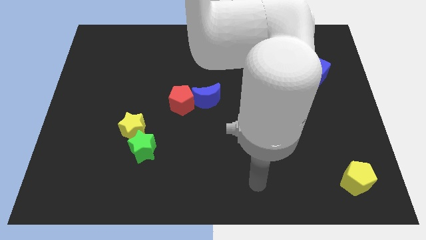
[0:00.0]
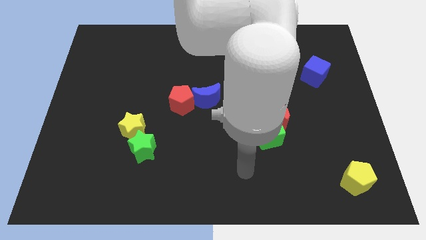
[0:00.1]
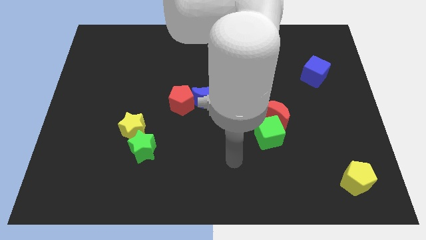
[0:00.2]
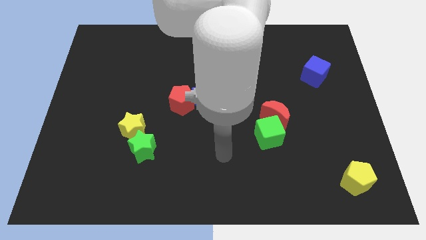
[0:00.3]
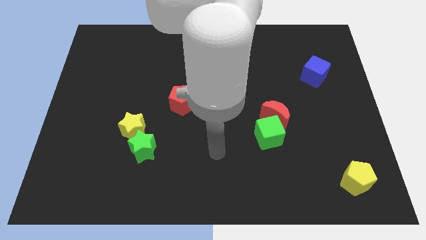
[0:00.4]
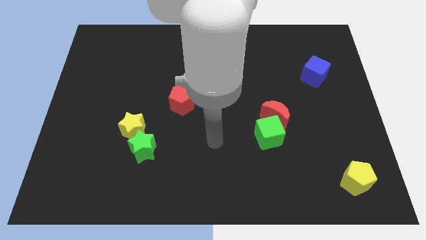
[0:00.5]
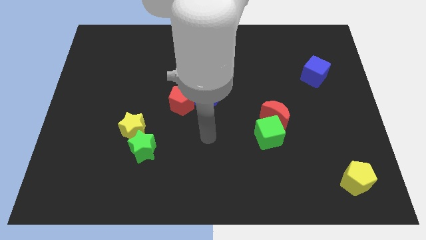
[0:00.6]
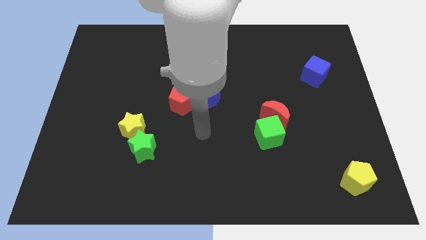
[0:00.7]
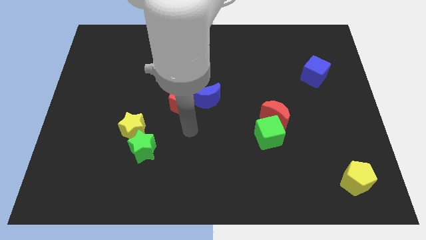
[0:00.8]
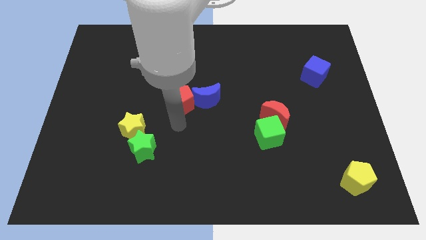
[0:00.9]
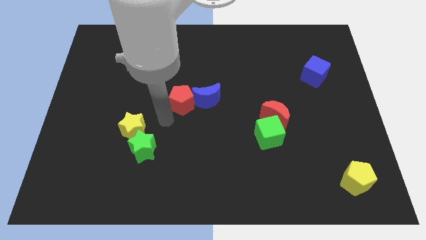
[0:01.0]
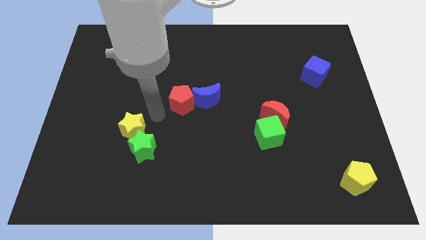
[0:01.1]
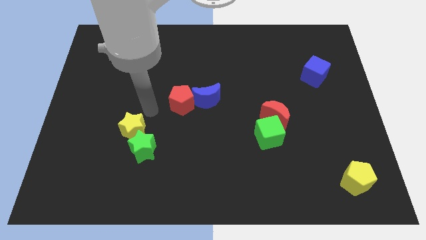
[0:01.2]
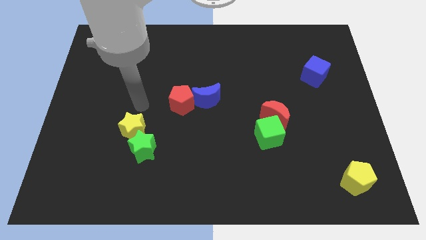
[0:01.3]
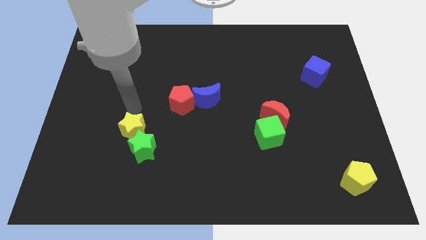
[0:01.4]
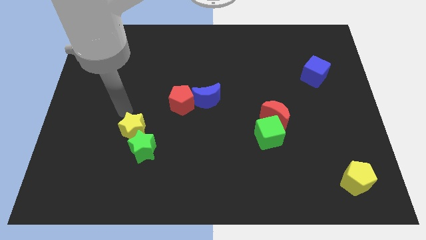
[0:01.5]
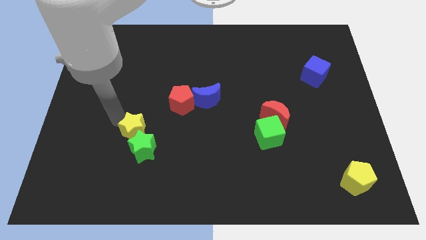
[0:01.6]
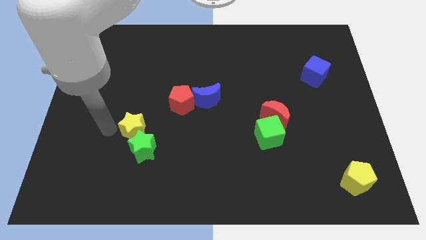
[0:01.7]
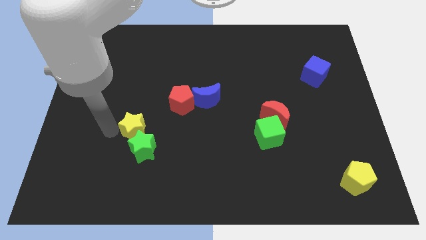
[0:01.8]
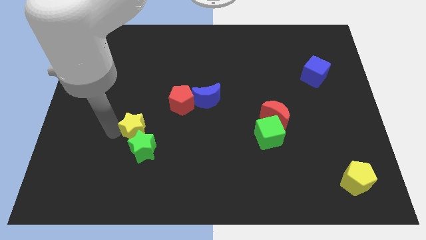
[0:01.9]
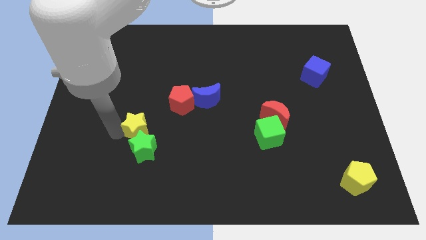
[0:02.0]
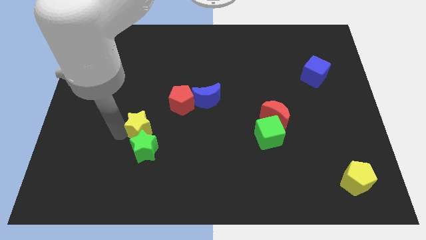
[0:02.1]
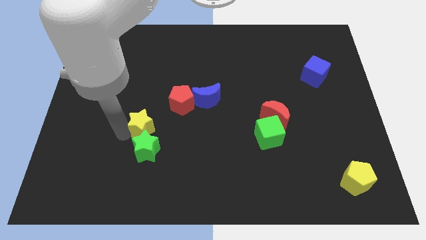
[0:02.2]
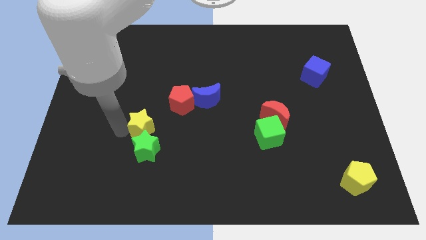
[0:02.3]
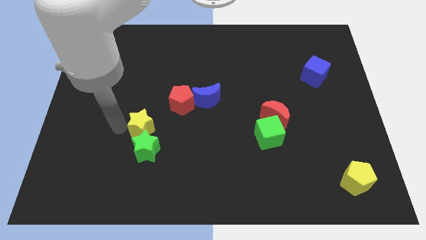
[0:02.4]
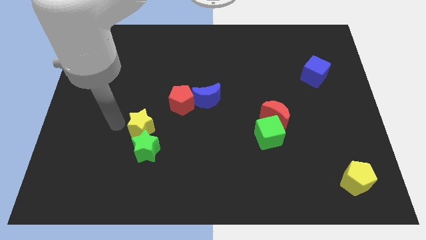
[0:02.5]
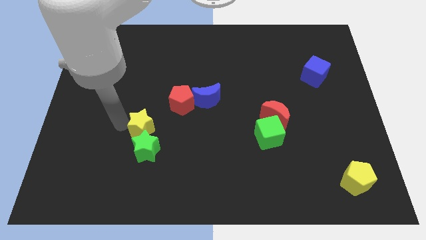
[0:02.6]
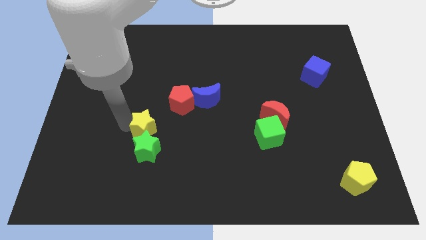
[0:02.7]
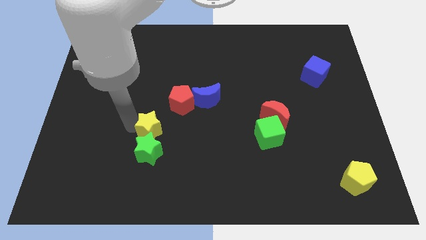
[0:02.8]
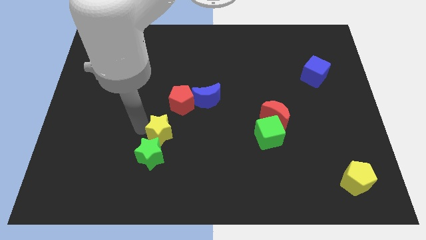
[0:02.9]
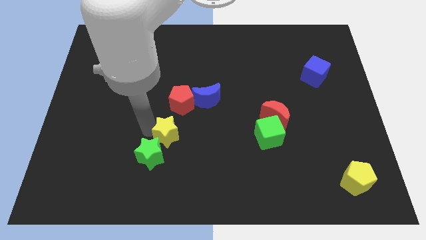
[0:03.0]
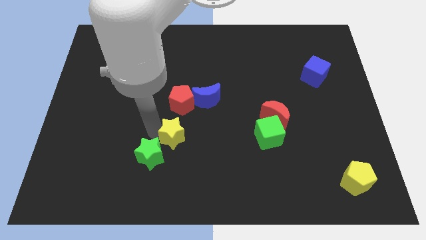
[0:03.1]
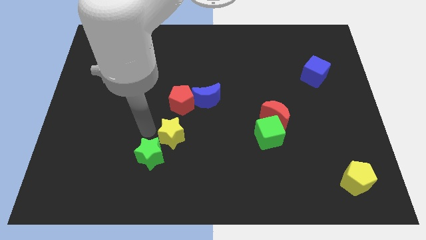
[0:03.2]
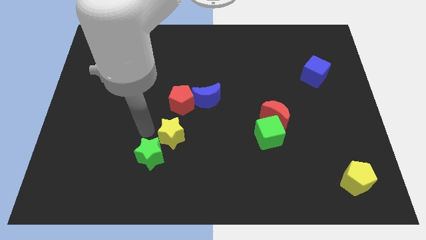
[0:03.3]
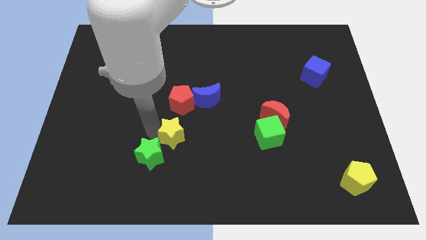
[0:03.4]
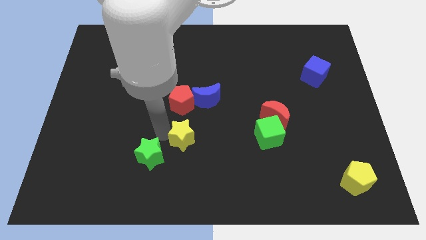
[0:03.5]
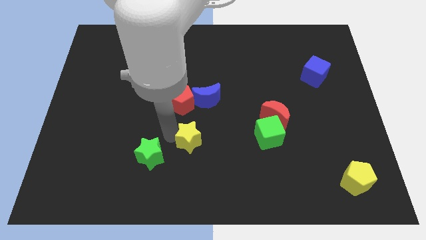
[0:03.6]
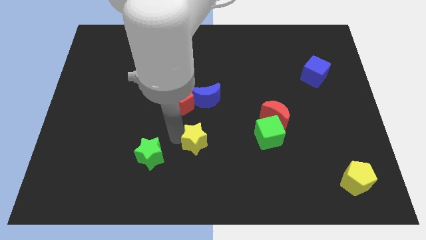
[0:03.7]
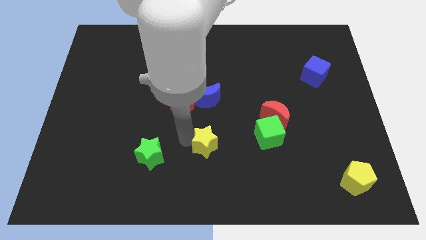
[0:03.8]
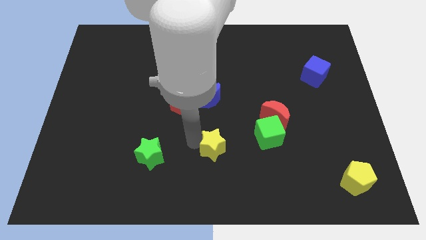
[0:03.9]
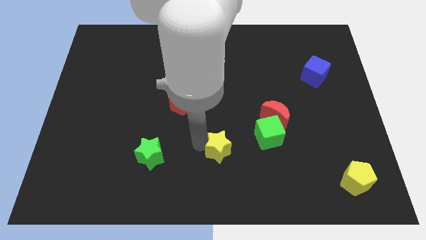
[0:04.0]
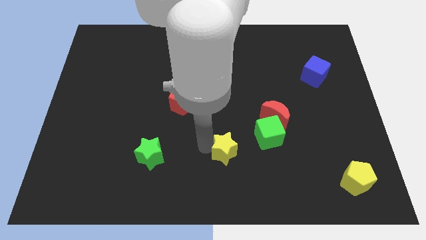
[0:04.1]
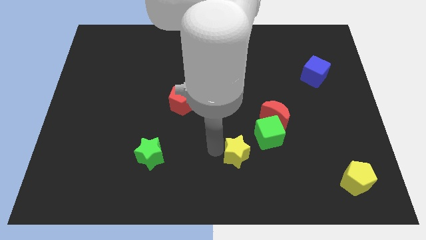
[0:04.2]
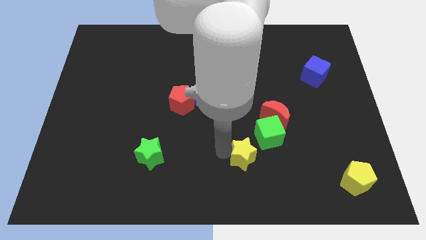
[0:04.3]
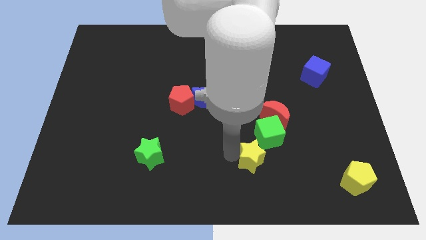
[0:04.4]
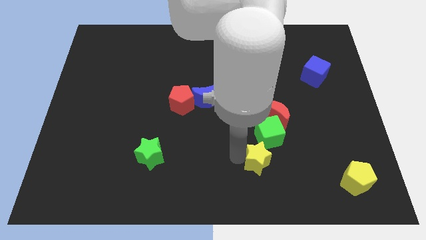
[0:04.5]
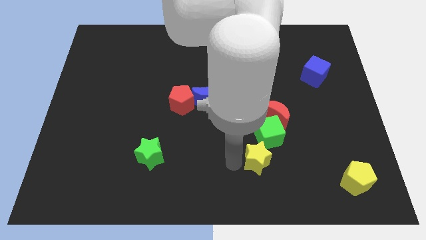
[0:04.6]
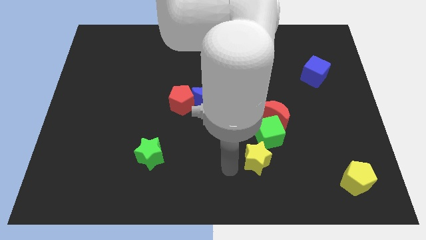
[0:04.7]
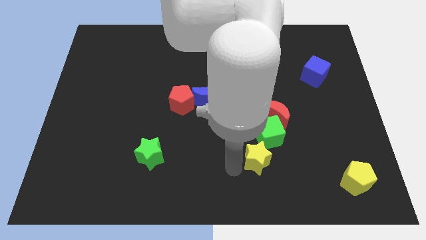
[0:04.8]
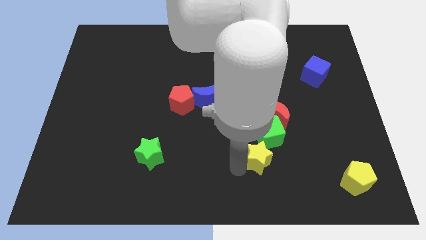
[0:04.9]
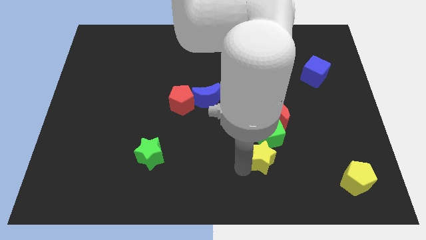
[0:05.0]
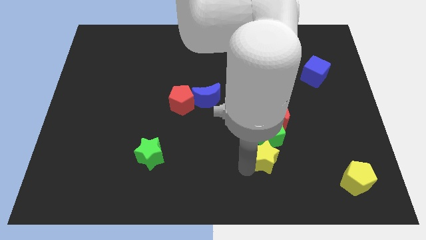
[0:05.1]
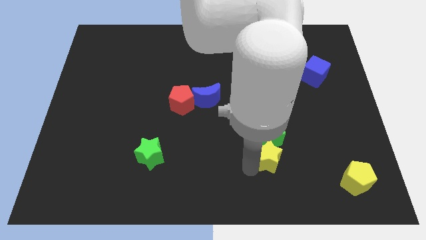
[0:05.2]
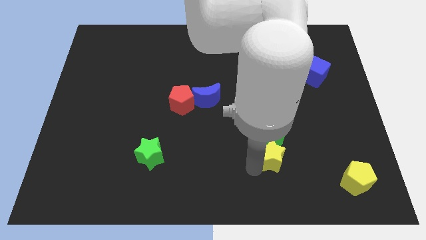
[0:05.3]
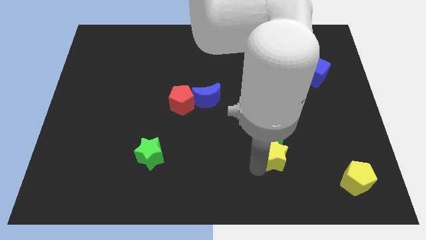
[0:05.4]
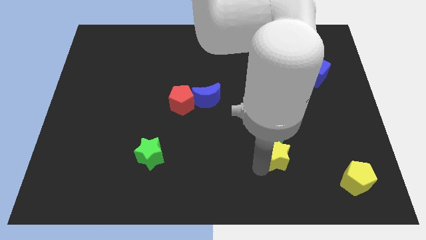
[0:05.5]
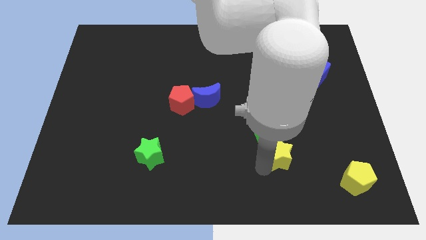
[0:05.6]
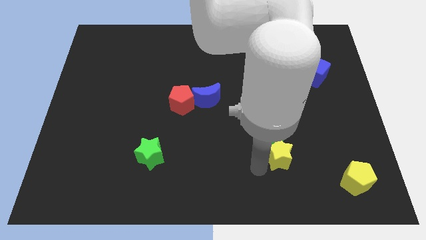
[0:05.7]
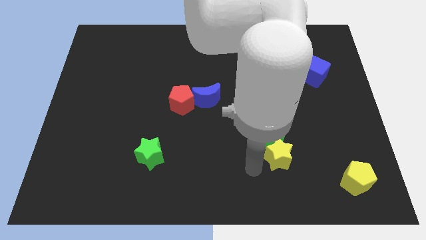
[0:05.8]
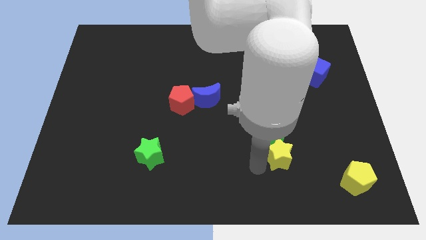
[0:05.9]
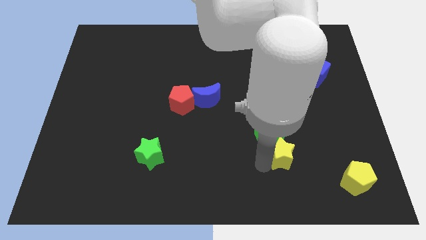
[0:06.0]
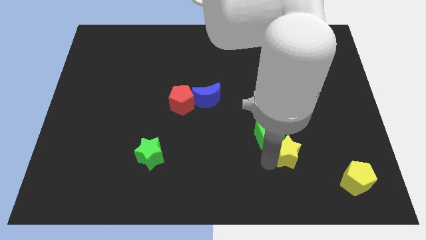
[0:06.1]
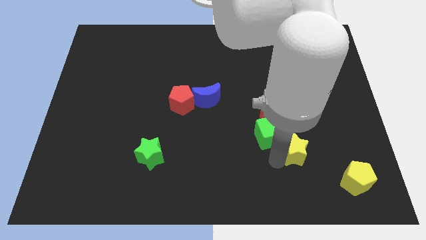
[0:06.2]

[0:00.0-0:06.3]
put the yellow star diagonally down and to the right of the red moon
